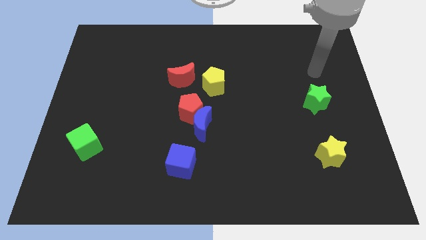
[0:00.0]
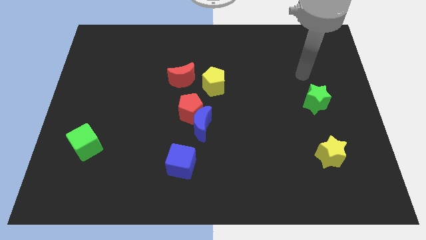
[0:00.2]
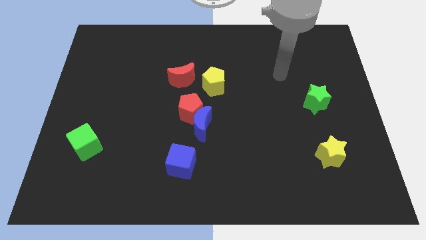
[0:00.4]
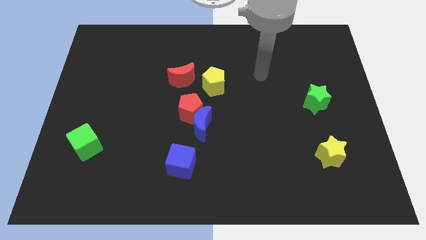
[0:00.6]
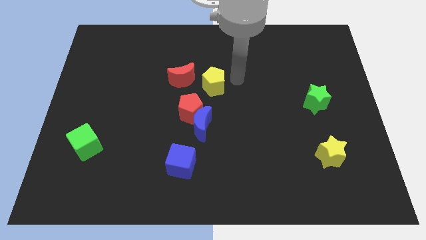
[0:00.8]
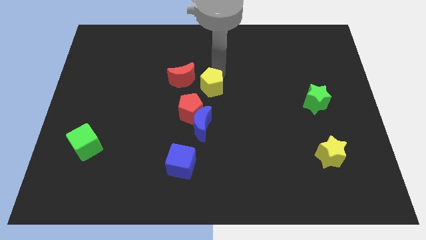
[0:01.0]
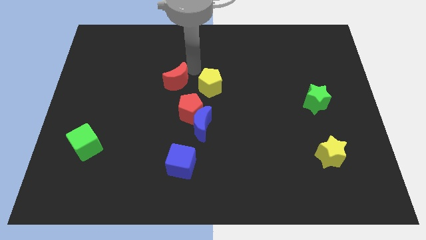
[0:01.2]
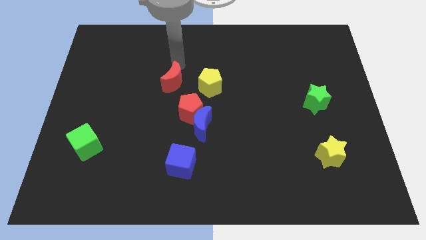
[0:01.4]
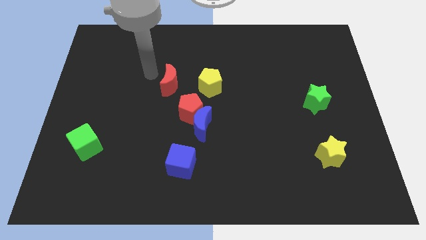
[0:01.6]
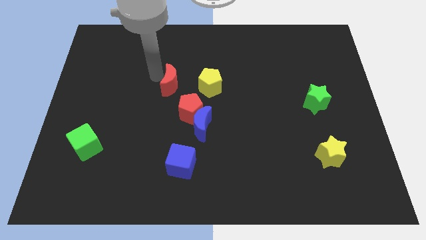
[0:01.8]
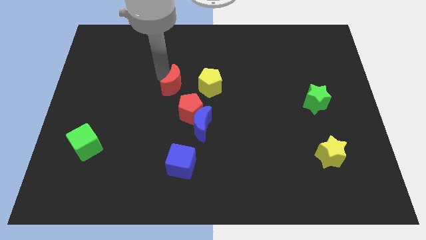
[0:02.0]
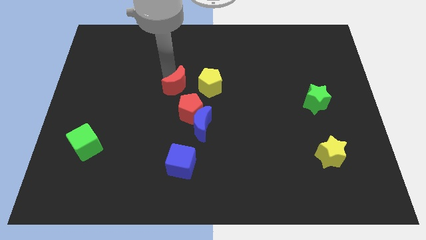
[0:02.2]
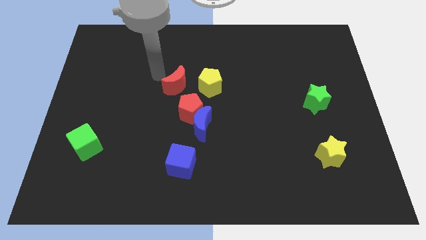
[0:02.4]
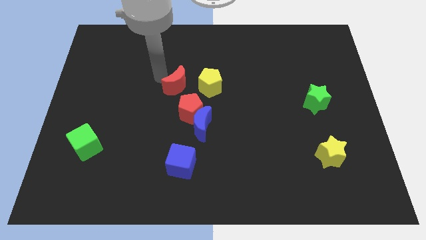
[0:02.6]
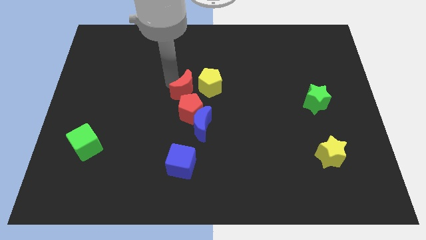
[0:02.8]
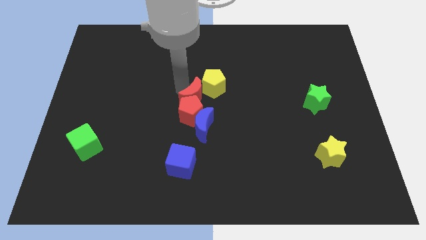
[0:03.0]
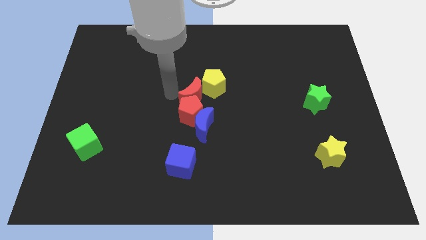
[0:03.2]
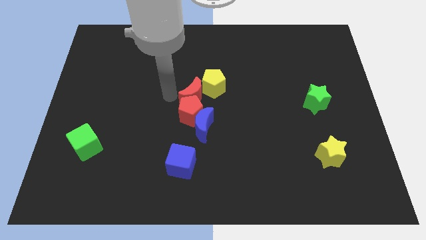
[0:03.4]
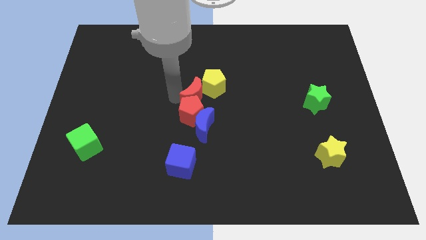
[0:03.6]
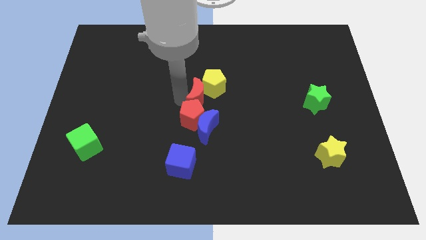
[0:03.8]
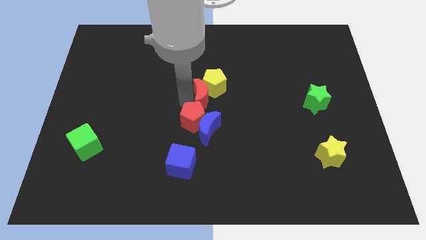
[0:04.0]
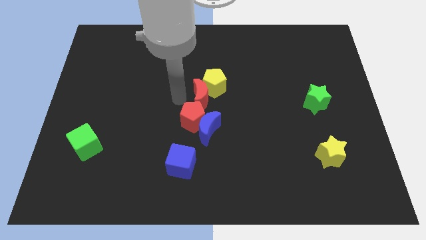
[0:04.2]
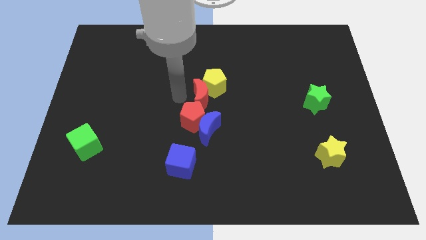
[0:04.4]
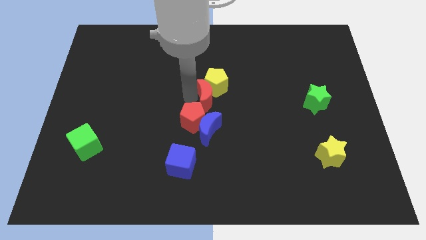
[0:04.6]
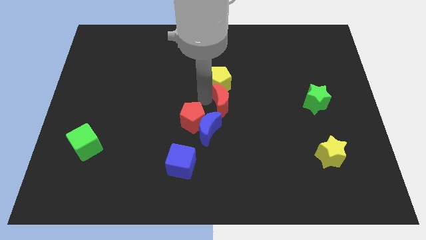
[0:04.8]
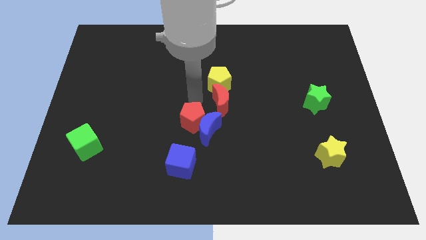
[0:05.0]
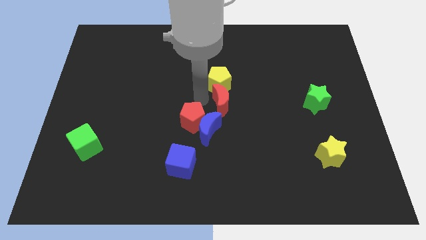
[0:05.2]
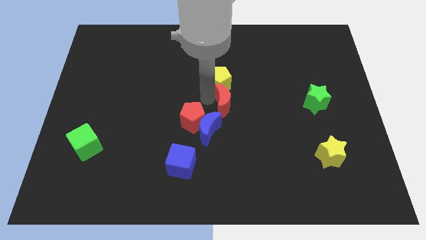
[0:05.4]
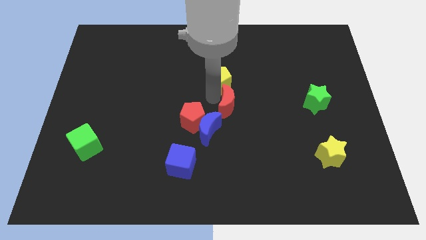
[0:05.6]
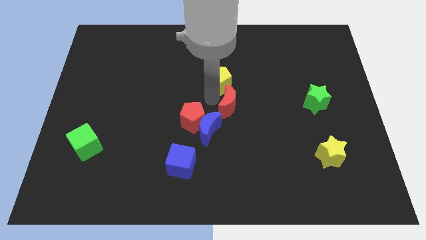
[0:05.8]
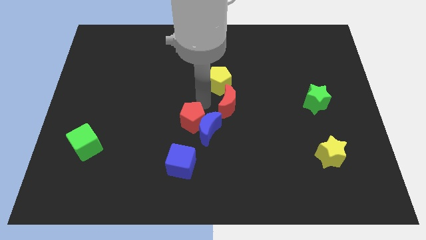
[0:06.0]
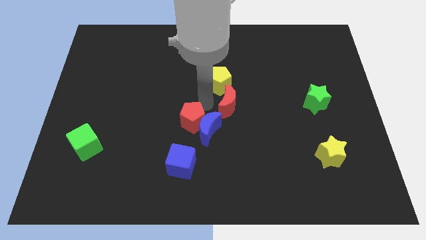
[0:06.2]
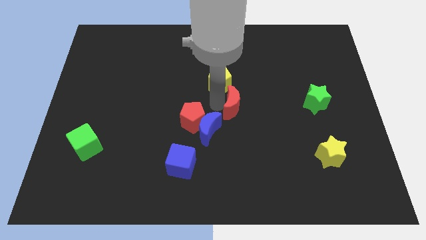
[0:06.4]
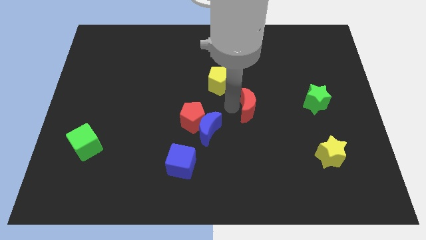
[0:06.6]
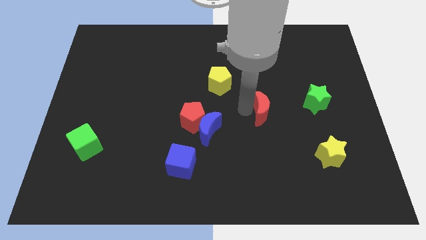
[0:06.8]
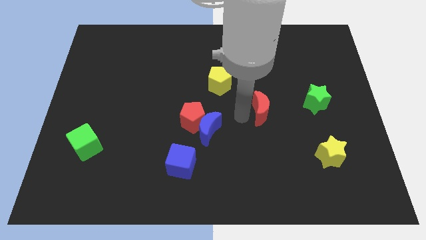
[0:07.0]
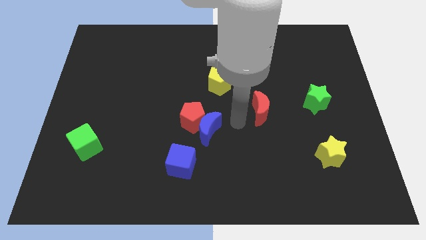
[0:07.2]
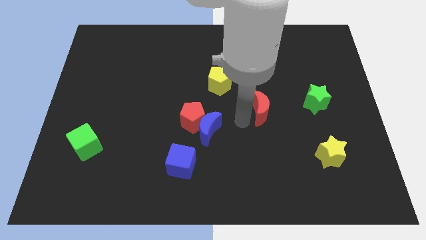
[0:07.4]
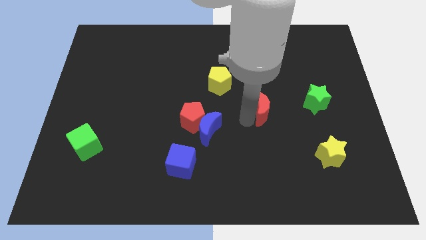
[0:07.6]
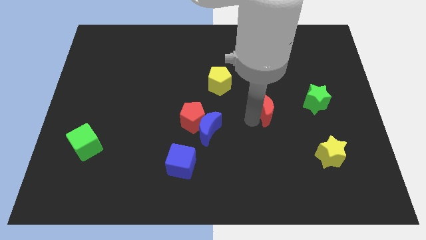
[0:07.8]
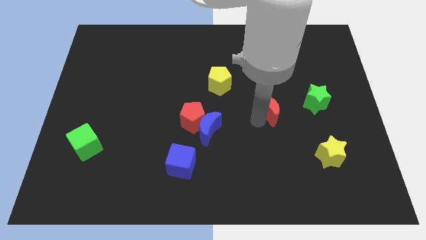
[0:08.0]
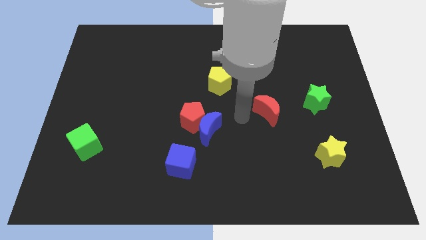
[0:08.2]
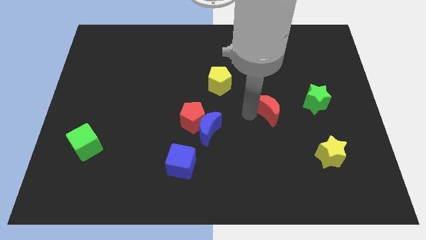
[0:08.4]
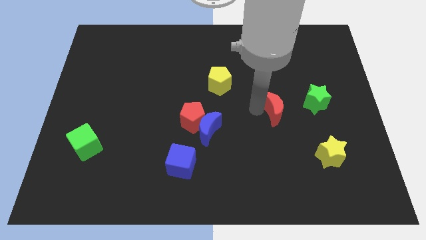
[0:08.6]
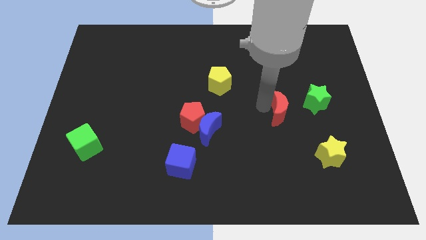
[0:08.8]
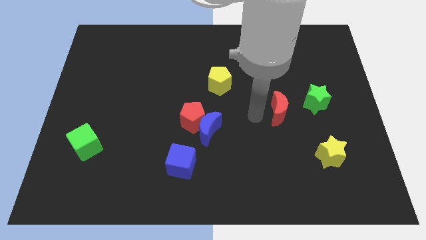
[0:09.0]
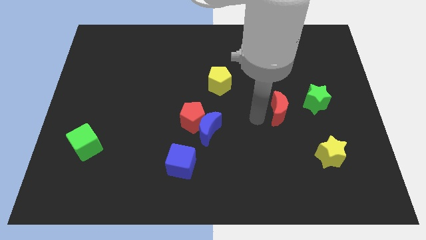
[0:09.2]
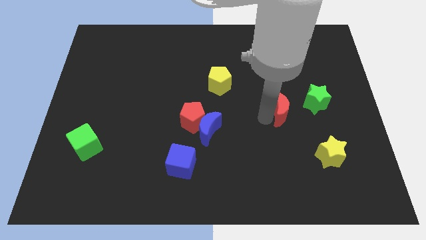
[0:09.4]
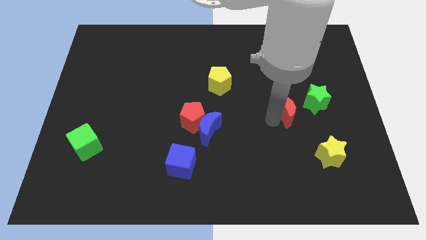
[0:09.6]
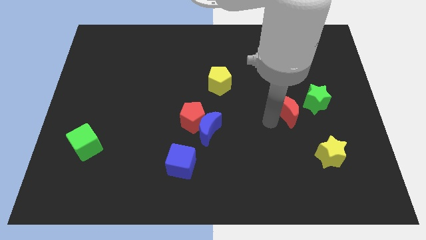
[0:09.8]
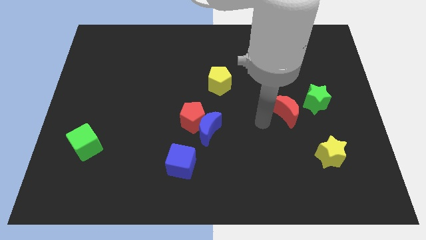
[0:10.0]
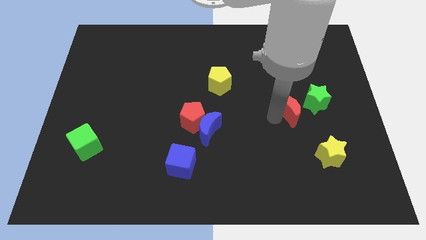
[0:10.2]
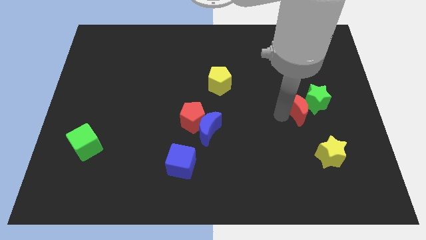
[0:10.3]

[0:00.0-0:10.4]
put the red moon towards the green star
